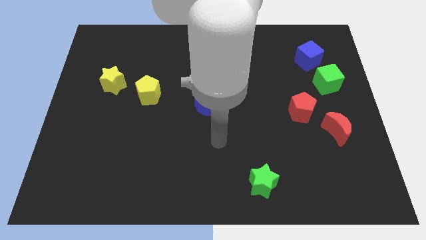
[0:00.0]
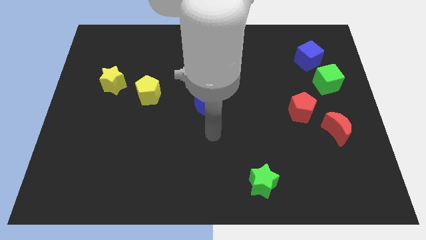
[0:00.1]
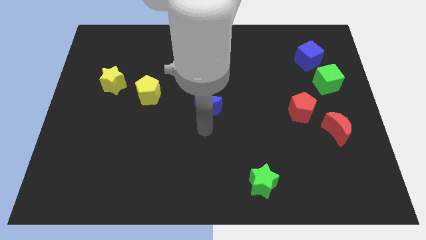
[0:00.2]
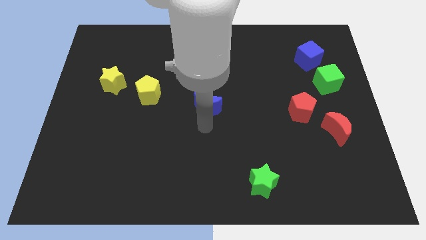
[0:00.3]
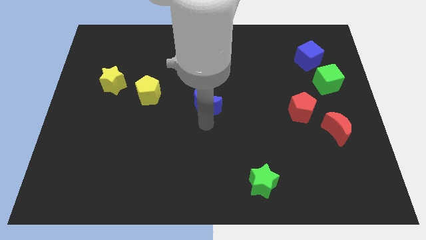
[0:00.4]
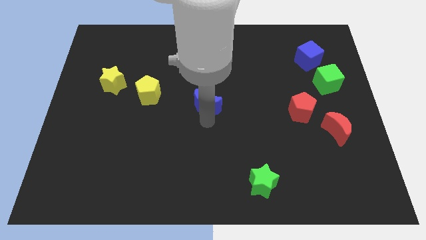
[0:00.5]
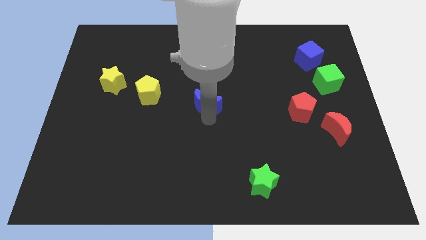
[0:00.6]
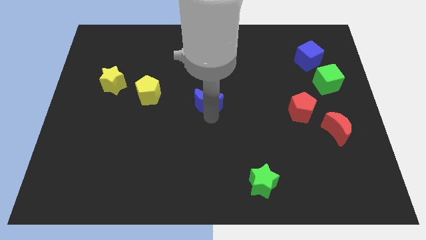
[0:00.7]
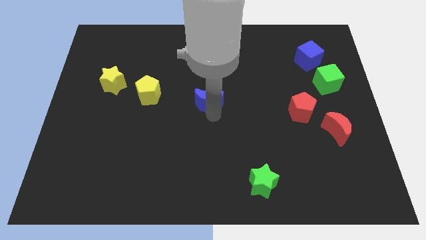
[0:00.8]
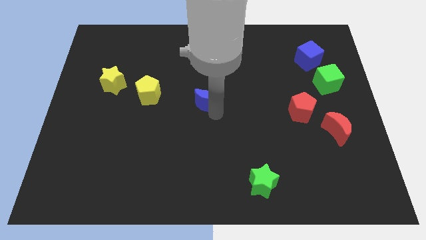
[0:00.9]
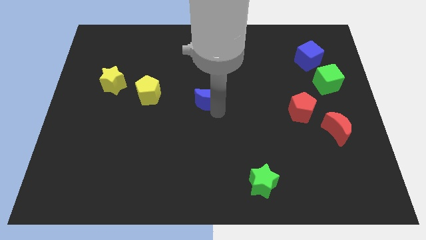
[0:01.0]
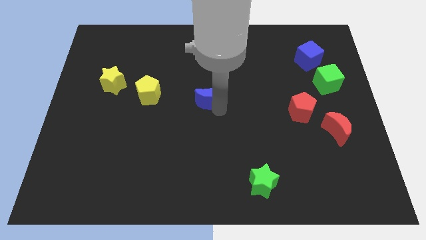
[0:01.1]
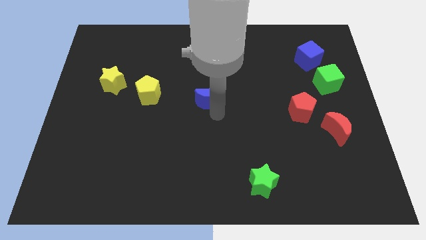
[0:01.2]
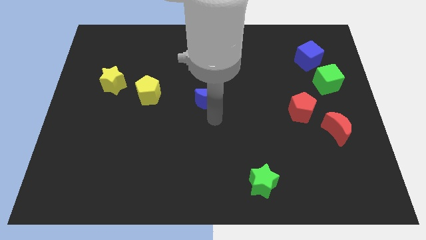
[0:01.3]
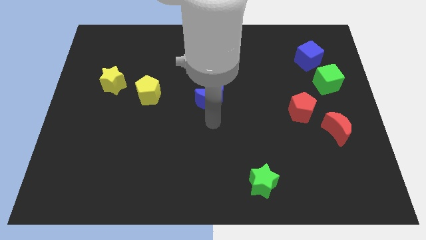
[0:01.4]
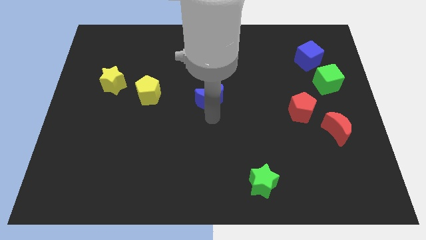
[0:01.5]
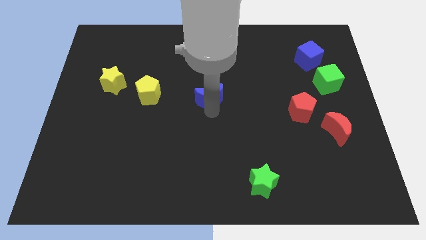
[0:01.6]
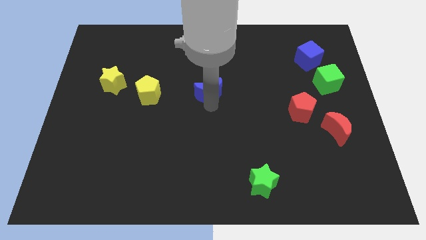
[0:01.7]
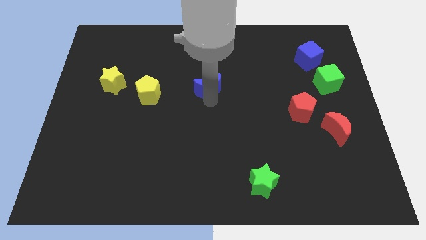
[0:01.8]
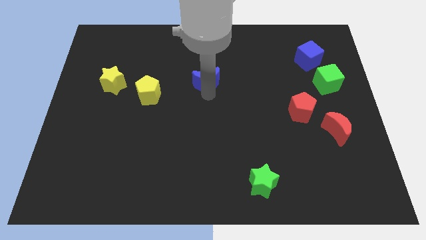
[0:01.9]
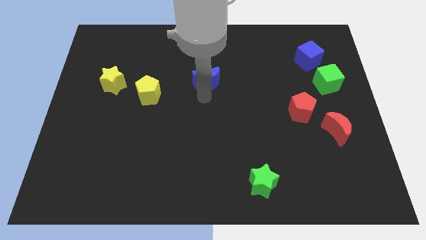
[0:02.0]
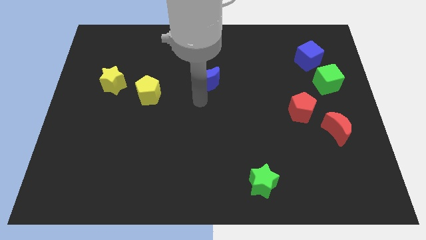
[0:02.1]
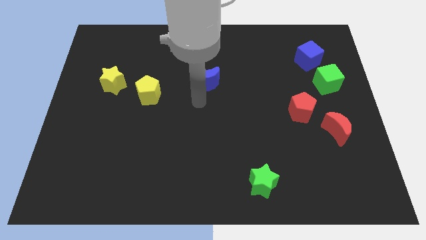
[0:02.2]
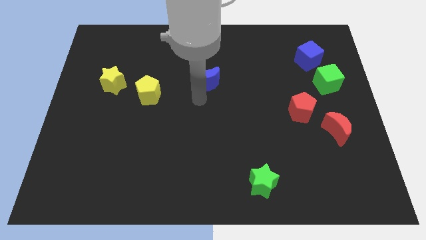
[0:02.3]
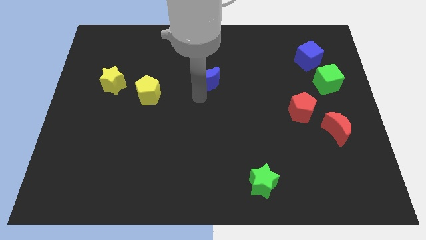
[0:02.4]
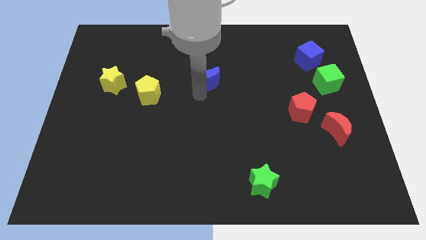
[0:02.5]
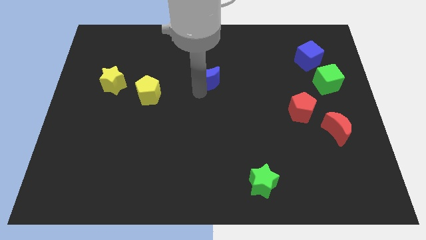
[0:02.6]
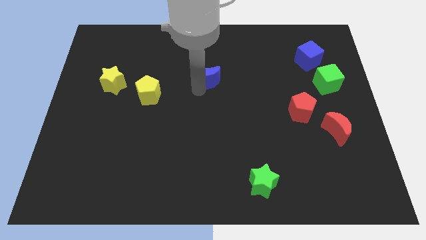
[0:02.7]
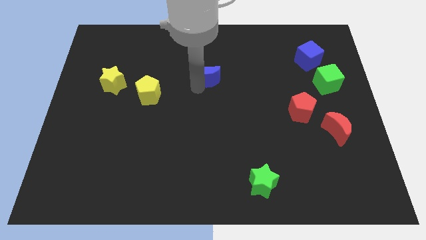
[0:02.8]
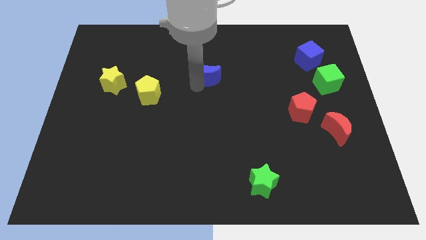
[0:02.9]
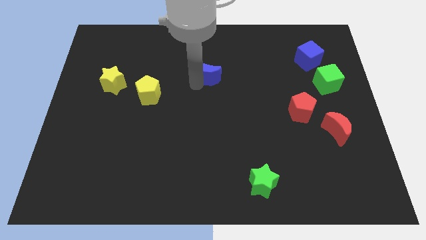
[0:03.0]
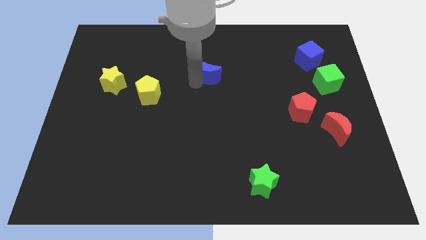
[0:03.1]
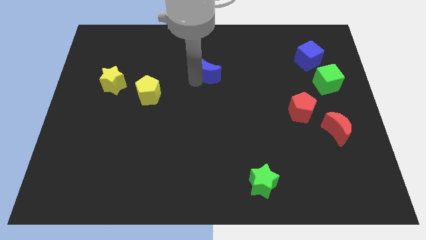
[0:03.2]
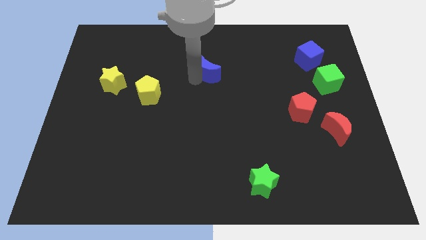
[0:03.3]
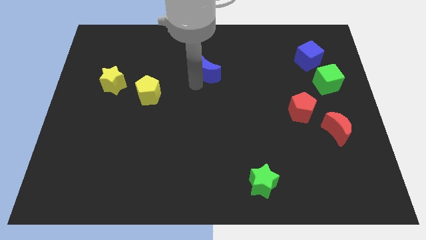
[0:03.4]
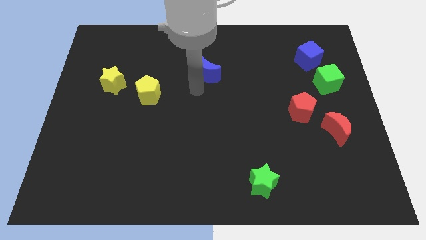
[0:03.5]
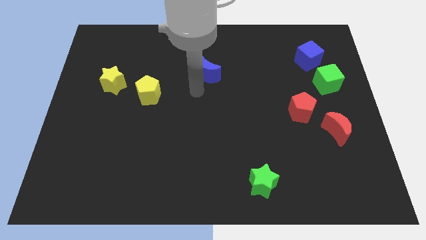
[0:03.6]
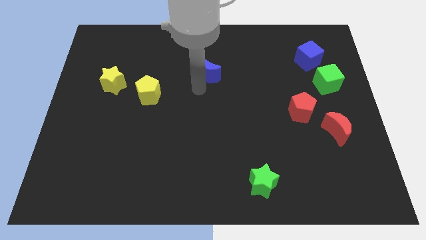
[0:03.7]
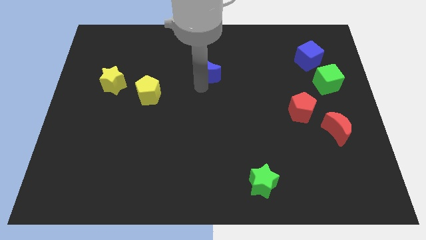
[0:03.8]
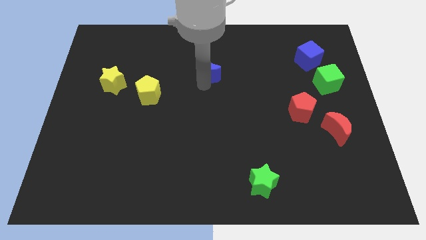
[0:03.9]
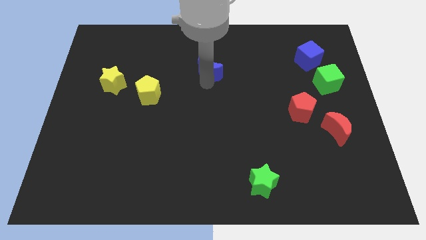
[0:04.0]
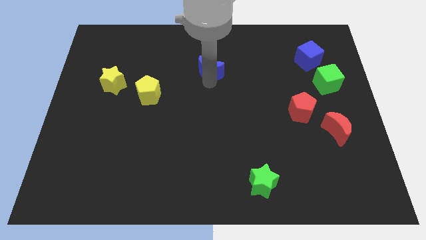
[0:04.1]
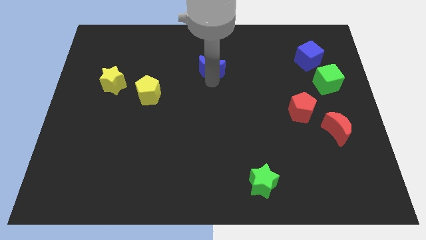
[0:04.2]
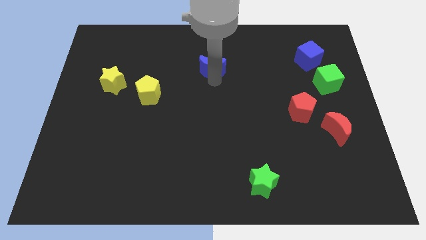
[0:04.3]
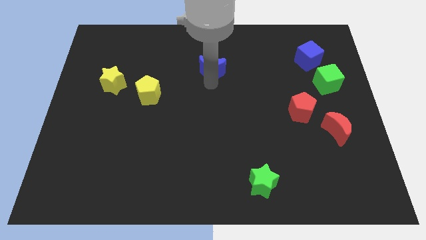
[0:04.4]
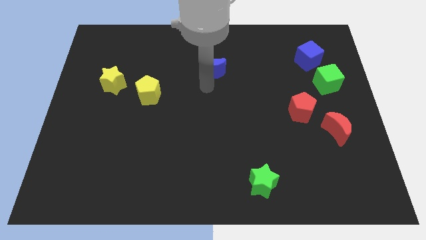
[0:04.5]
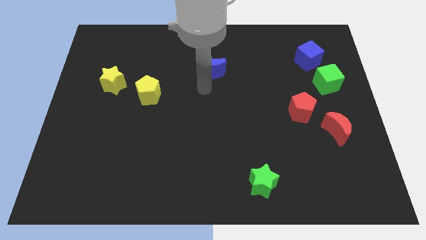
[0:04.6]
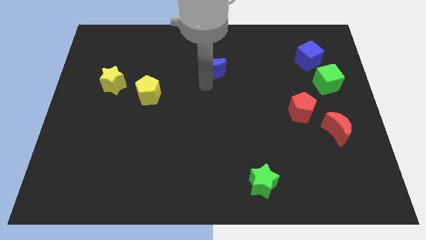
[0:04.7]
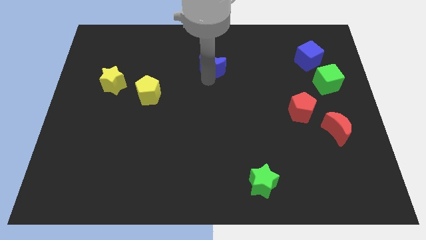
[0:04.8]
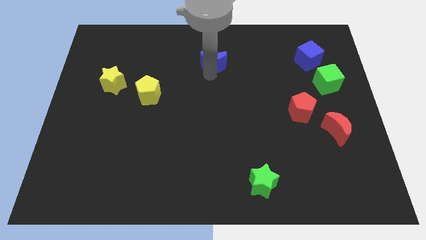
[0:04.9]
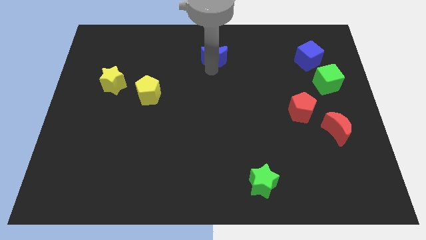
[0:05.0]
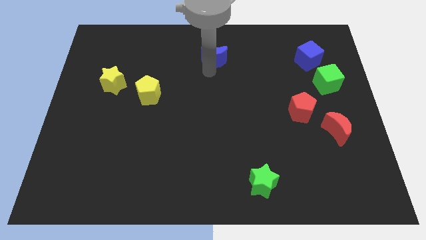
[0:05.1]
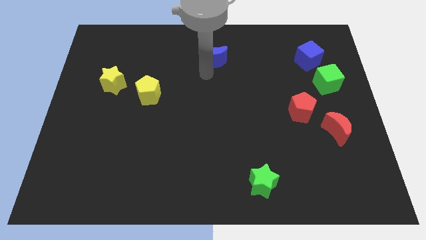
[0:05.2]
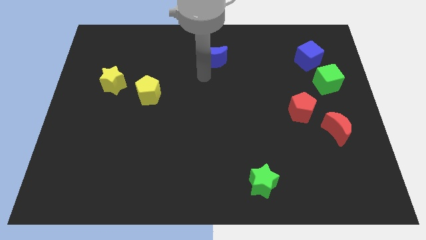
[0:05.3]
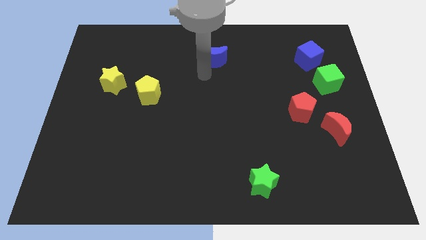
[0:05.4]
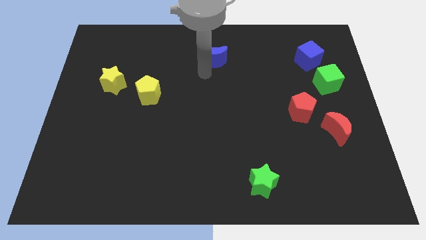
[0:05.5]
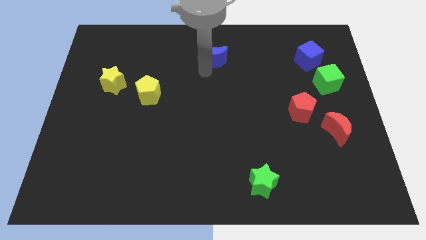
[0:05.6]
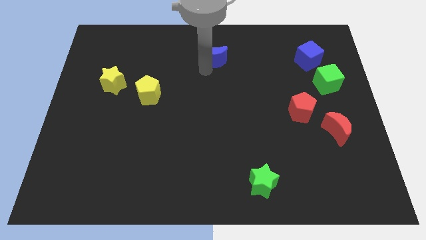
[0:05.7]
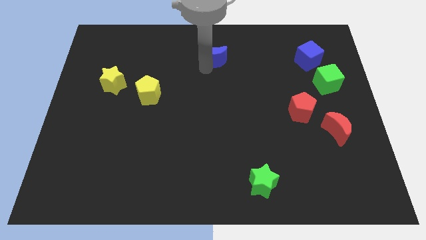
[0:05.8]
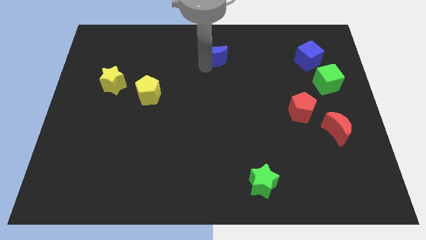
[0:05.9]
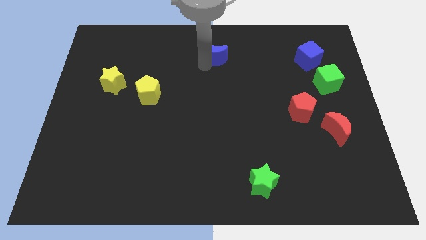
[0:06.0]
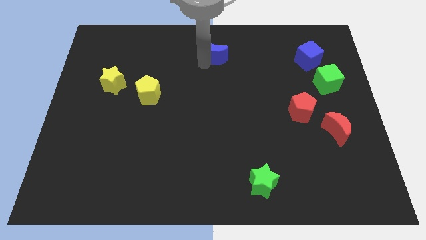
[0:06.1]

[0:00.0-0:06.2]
slide the blue moon to the top

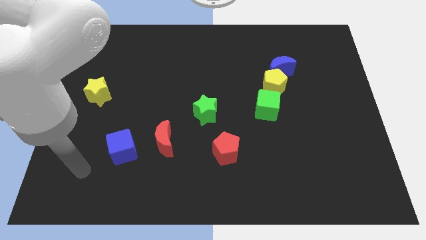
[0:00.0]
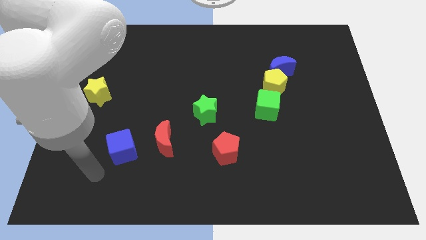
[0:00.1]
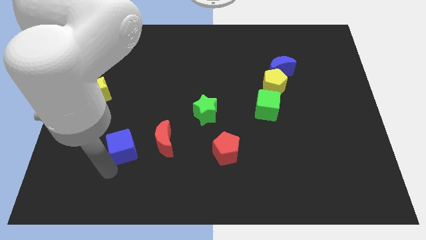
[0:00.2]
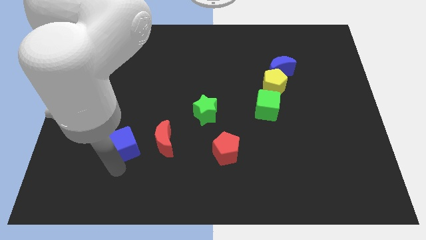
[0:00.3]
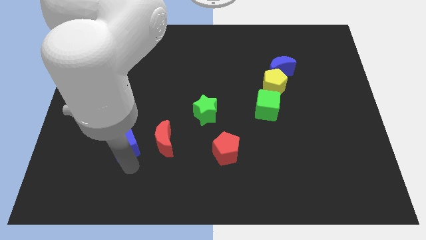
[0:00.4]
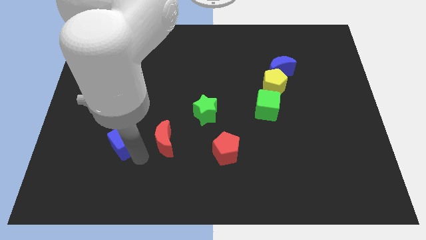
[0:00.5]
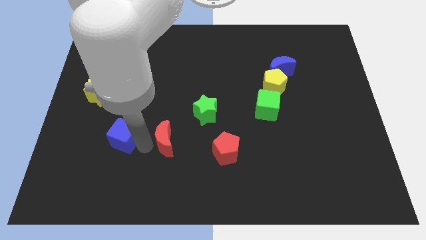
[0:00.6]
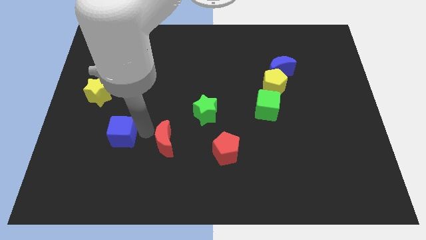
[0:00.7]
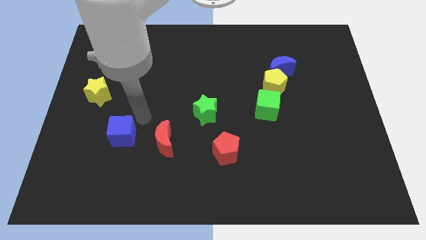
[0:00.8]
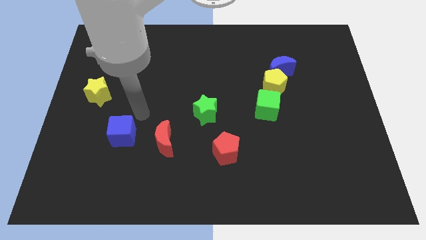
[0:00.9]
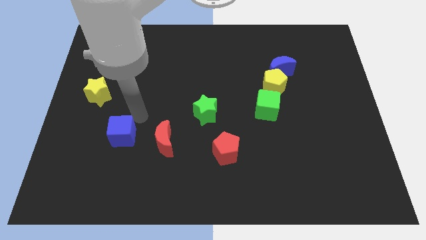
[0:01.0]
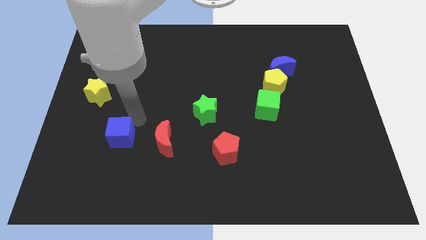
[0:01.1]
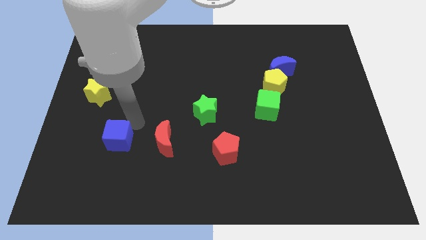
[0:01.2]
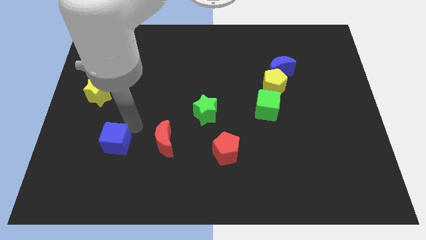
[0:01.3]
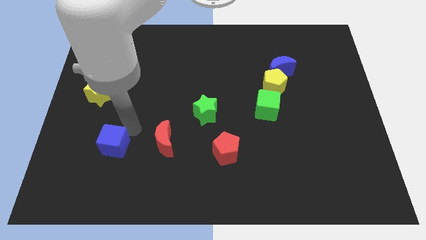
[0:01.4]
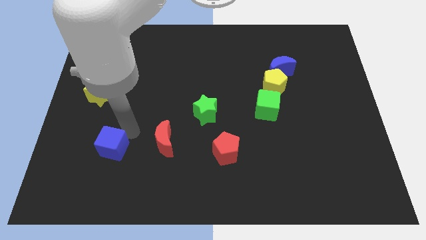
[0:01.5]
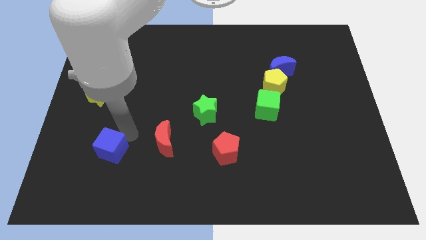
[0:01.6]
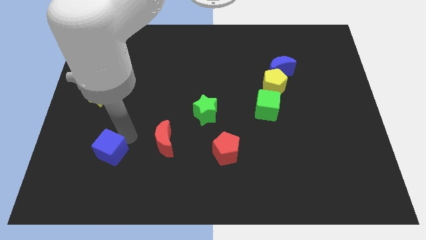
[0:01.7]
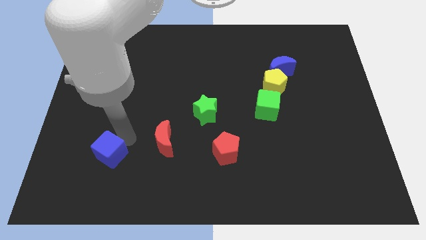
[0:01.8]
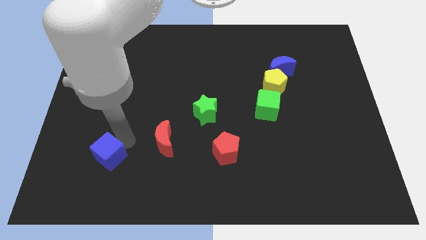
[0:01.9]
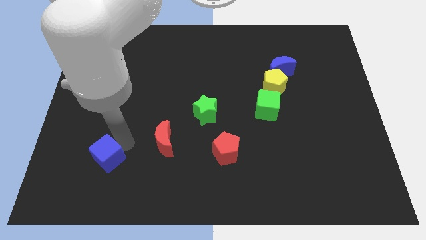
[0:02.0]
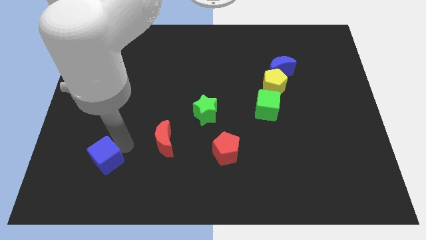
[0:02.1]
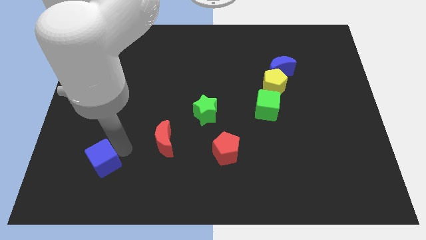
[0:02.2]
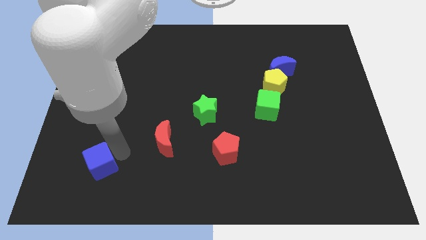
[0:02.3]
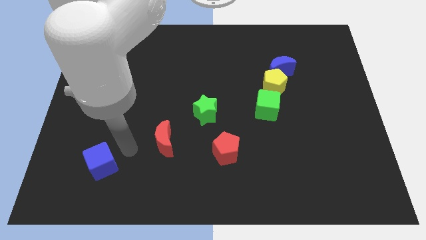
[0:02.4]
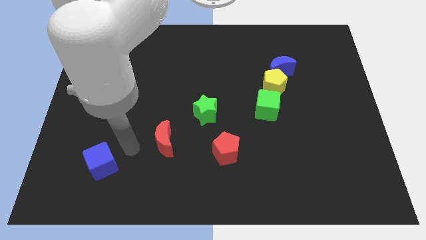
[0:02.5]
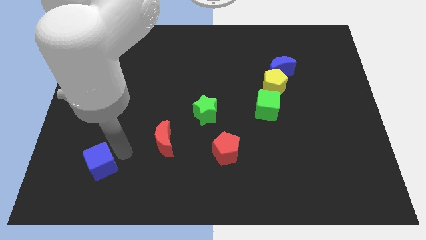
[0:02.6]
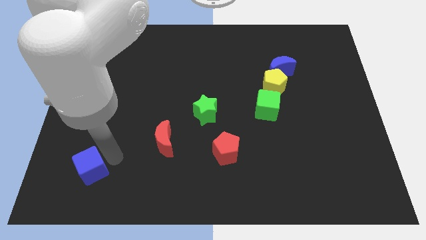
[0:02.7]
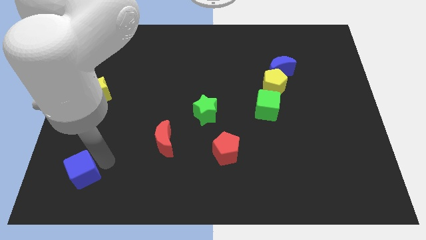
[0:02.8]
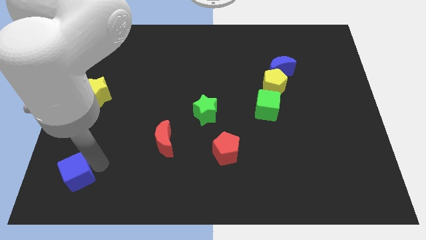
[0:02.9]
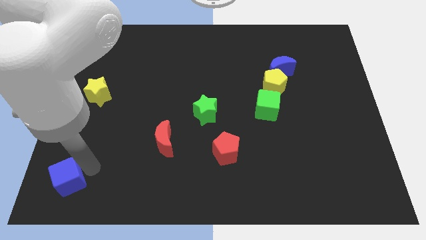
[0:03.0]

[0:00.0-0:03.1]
put the blue cube to the bottom left
